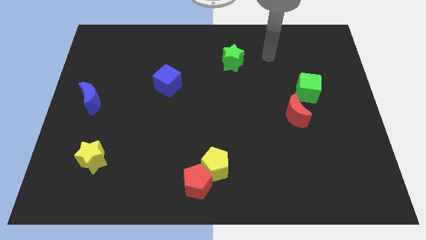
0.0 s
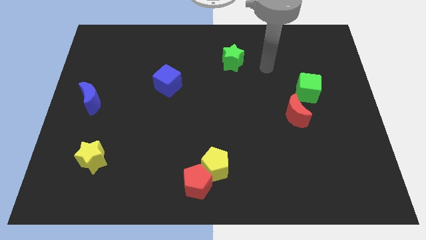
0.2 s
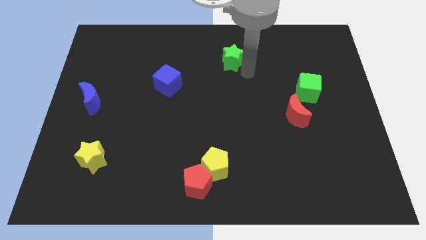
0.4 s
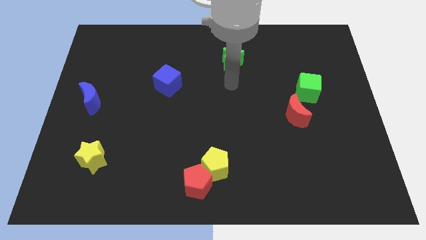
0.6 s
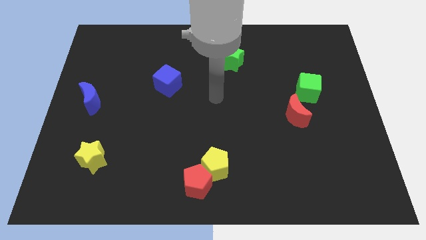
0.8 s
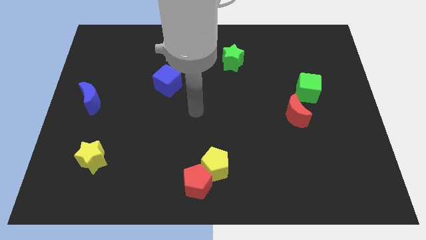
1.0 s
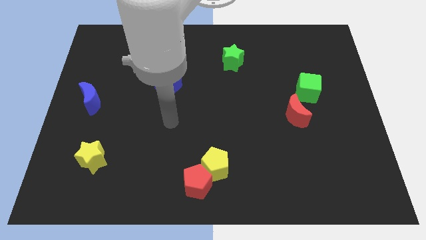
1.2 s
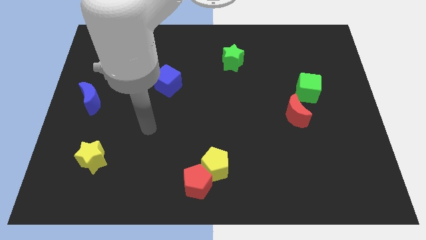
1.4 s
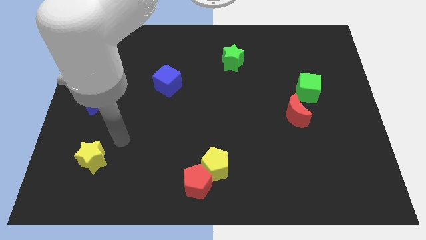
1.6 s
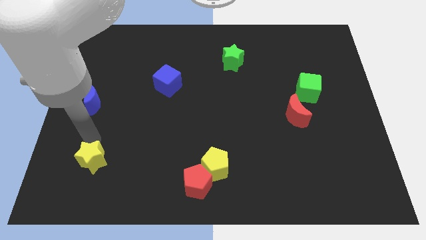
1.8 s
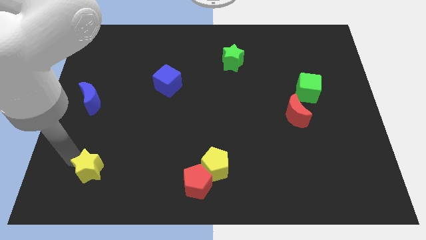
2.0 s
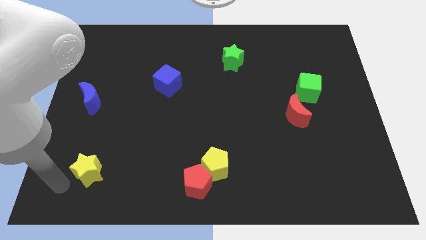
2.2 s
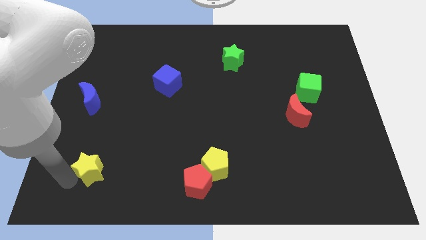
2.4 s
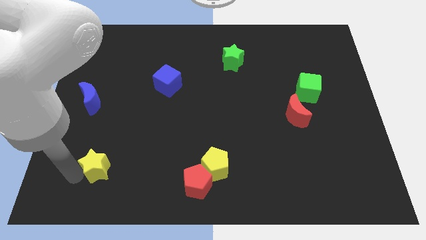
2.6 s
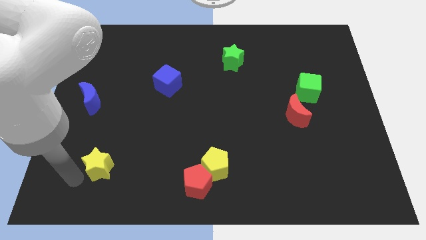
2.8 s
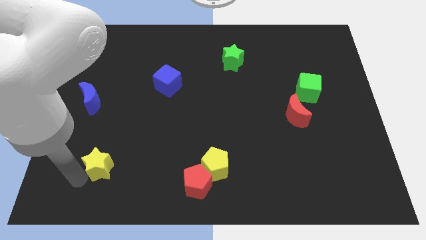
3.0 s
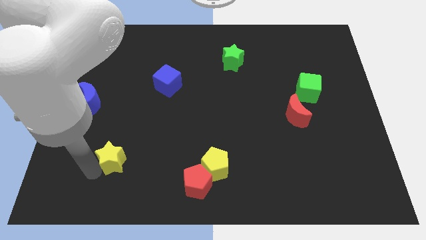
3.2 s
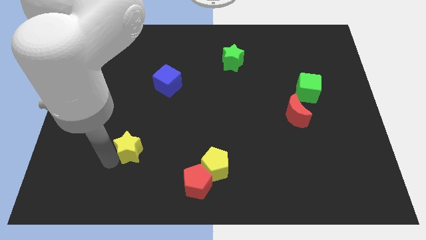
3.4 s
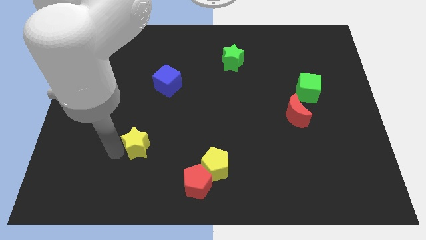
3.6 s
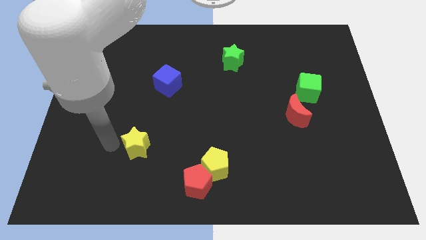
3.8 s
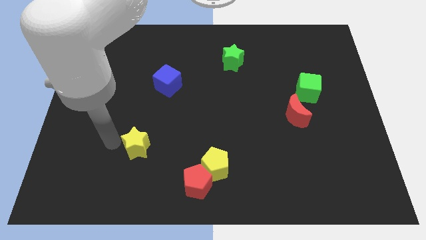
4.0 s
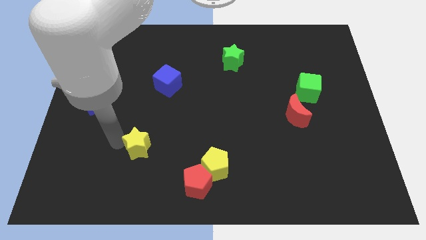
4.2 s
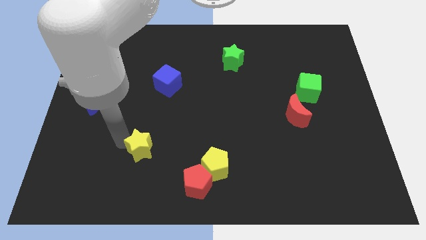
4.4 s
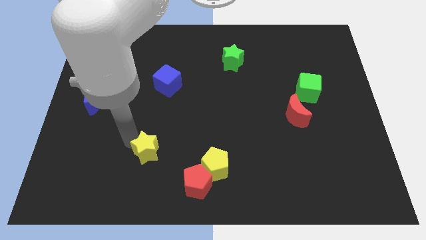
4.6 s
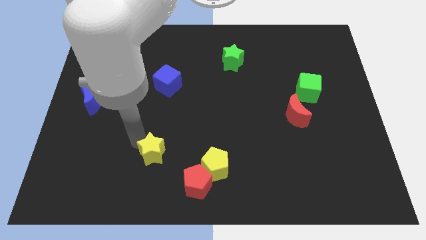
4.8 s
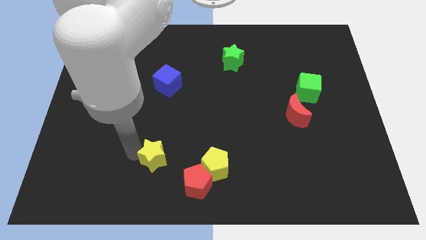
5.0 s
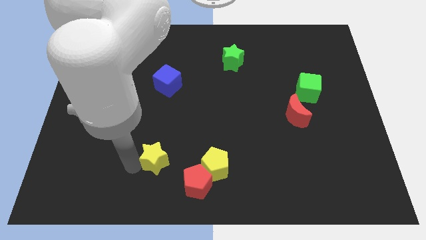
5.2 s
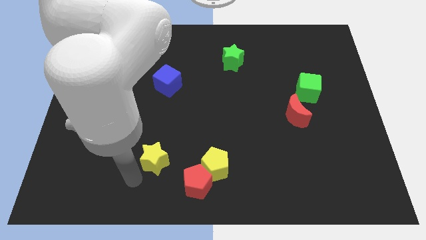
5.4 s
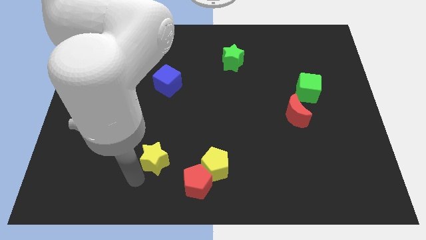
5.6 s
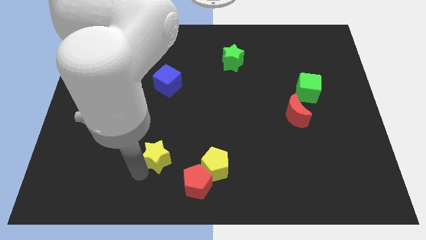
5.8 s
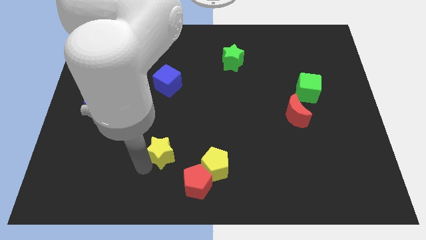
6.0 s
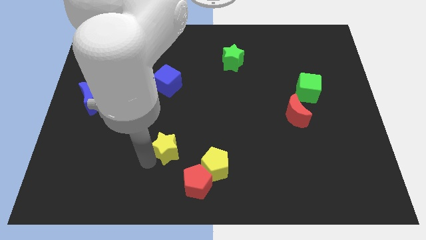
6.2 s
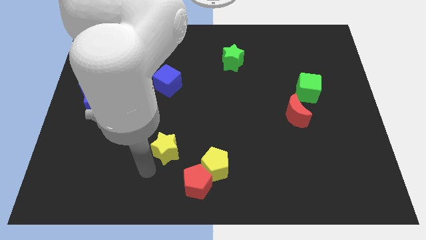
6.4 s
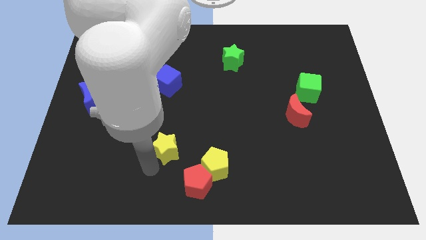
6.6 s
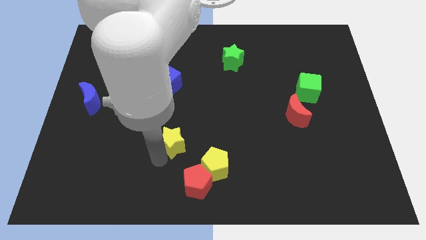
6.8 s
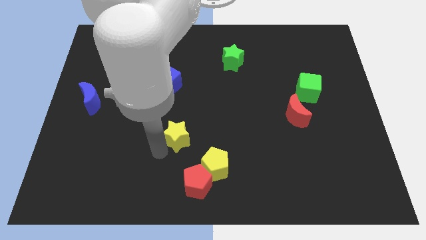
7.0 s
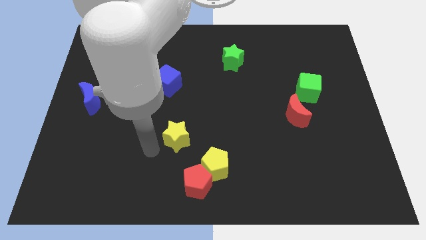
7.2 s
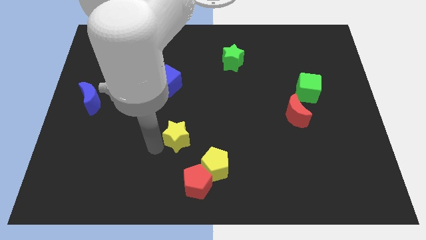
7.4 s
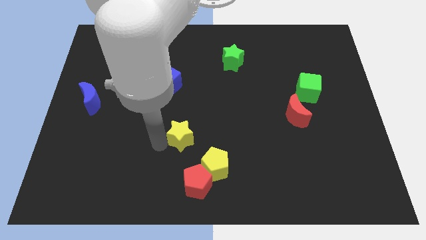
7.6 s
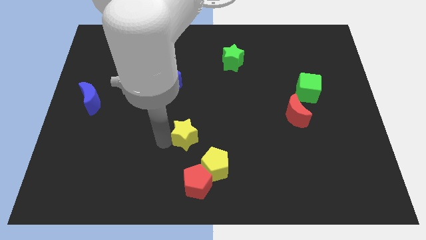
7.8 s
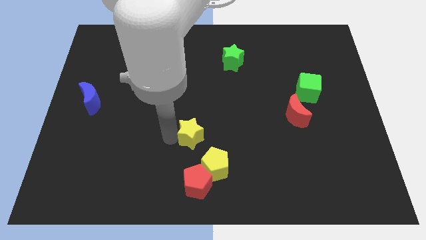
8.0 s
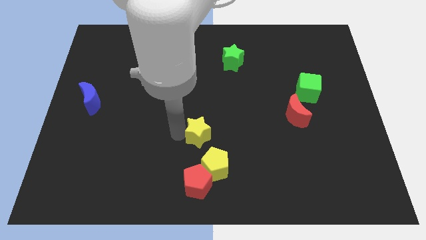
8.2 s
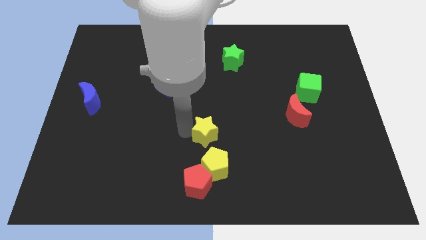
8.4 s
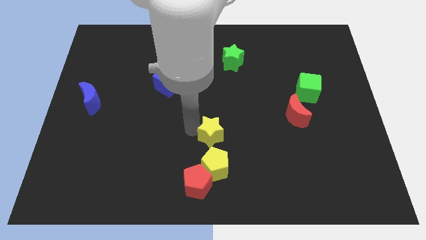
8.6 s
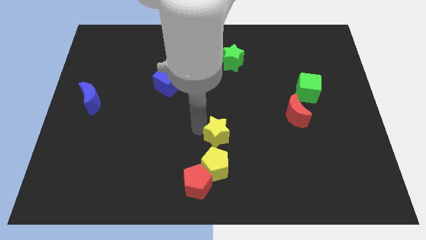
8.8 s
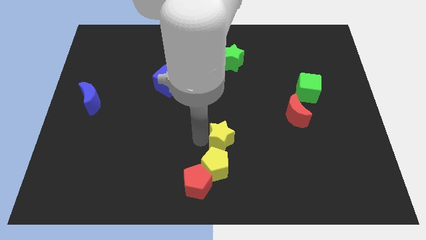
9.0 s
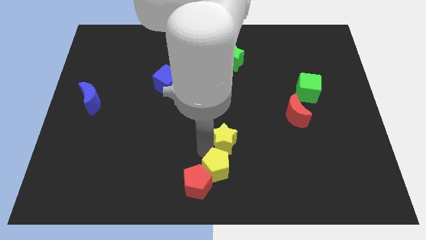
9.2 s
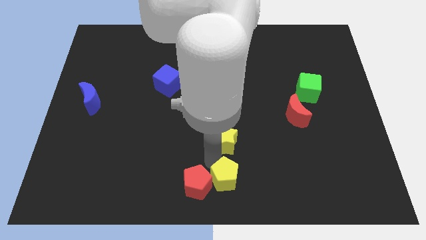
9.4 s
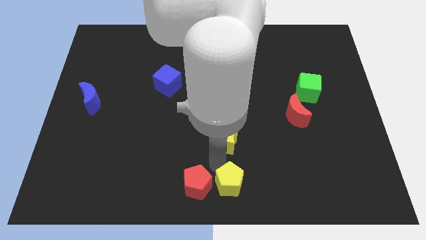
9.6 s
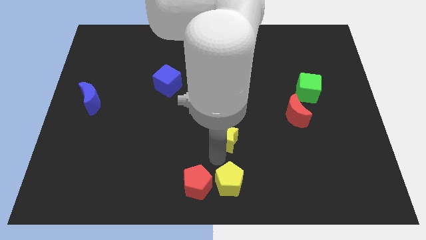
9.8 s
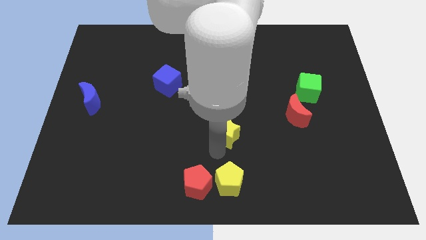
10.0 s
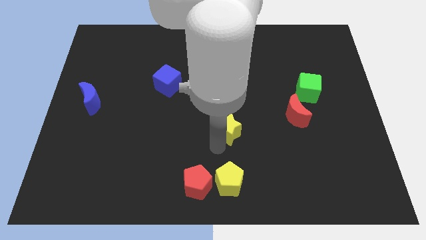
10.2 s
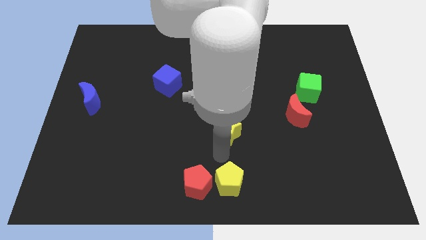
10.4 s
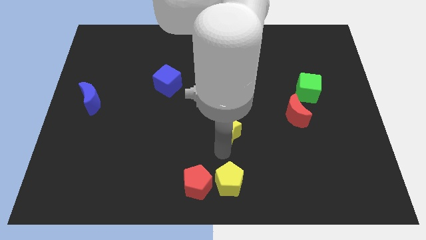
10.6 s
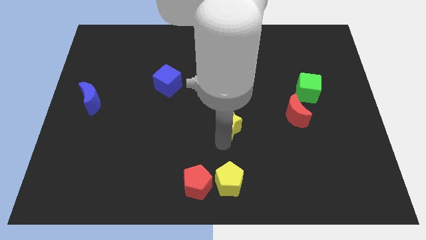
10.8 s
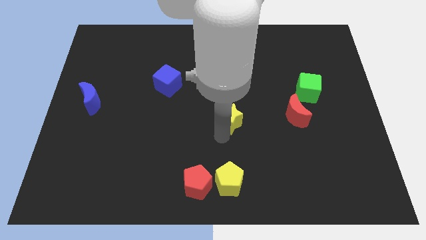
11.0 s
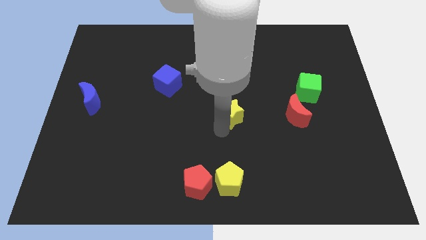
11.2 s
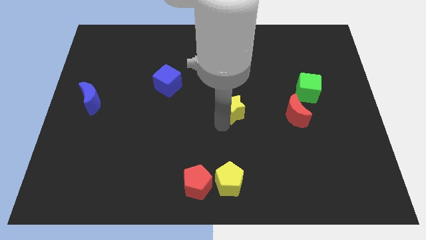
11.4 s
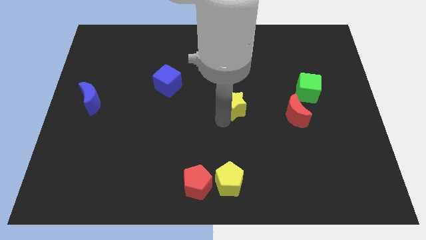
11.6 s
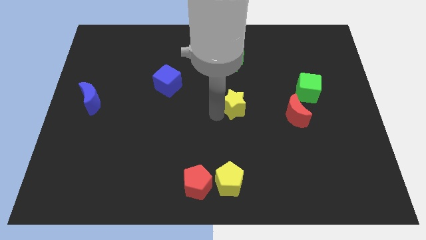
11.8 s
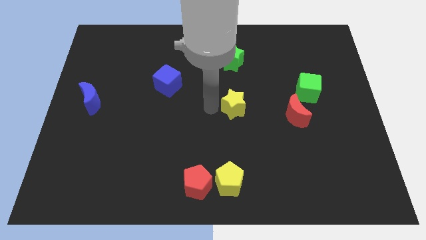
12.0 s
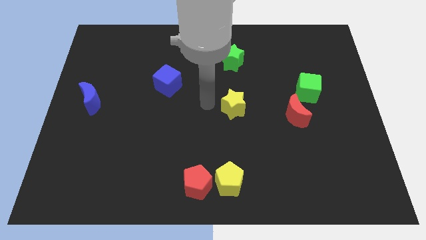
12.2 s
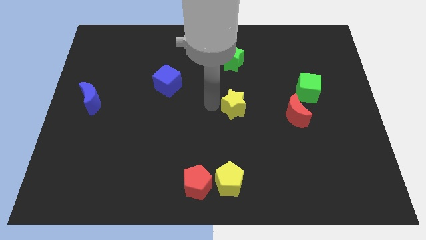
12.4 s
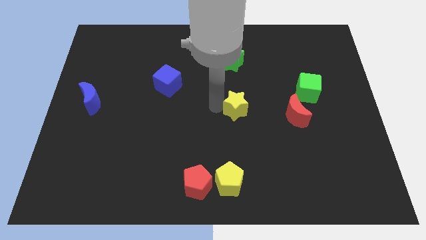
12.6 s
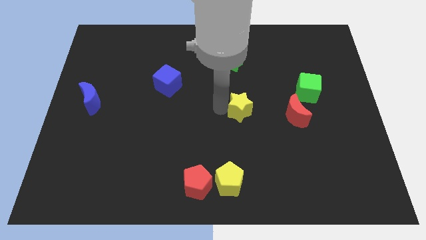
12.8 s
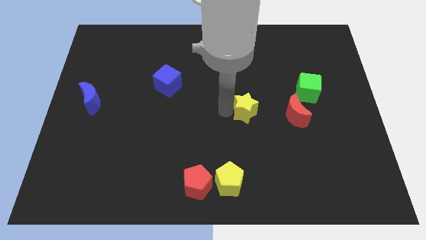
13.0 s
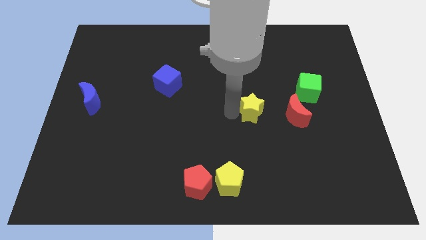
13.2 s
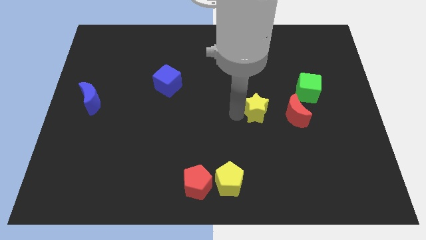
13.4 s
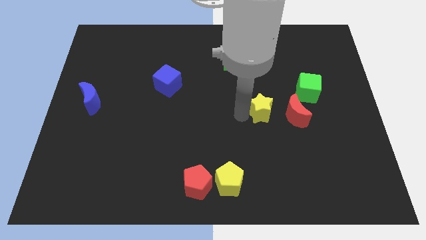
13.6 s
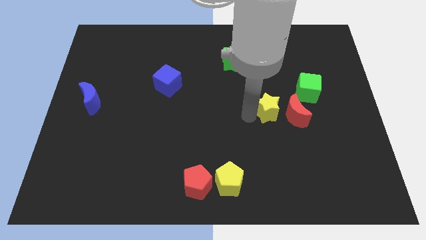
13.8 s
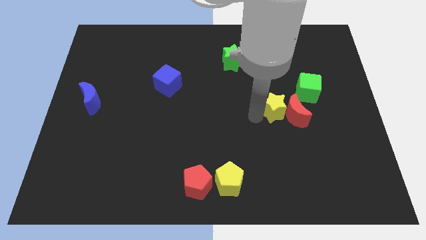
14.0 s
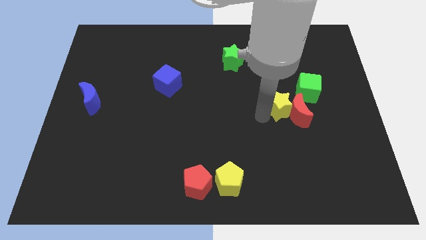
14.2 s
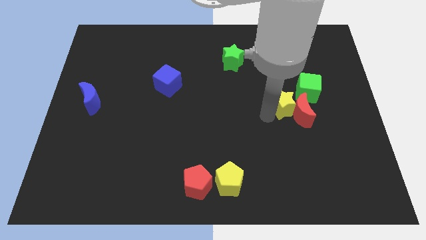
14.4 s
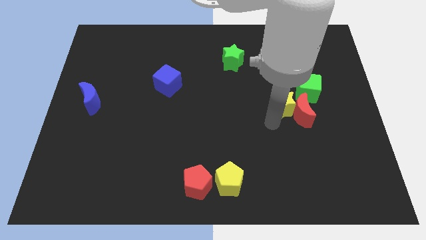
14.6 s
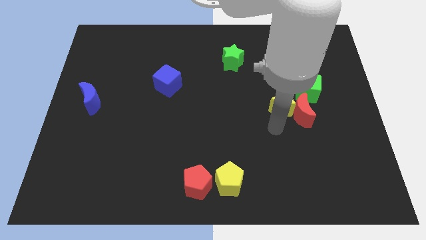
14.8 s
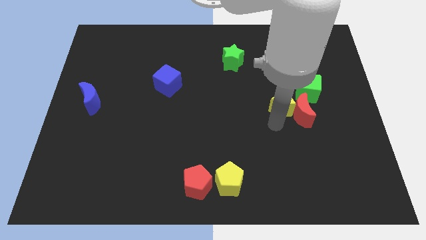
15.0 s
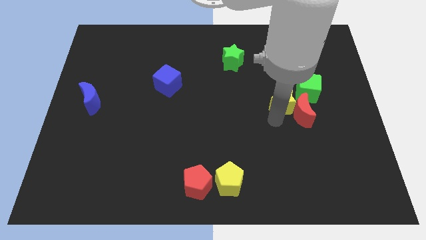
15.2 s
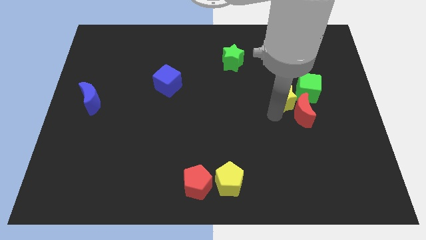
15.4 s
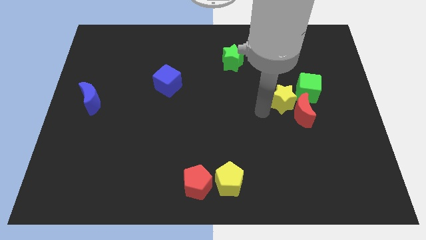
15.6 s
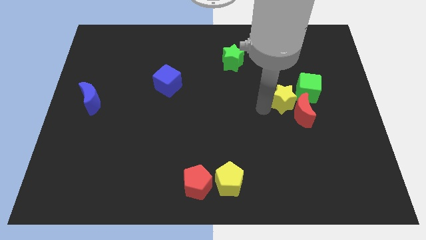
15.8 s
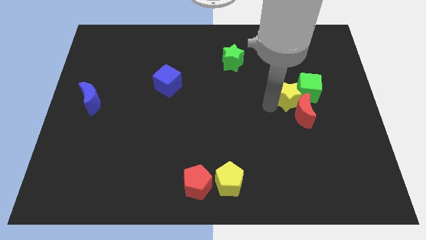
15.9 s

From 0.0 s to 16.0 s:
move the yellow star towards the green cube
